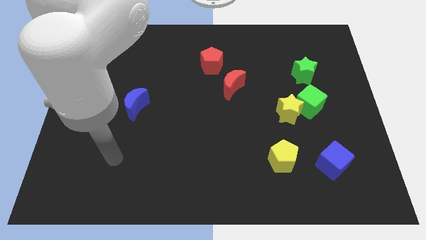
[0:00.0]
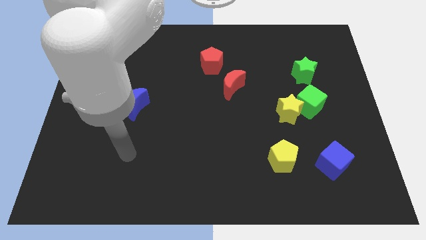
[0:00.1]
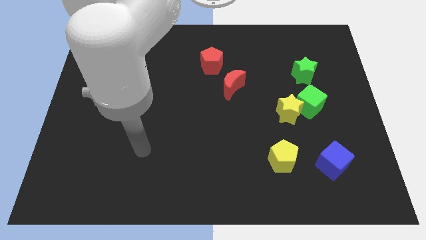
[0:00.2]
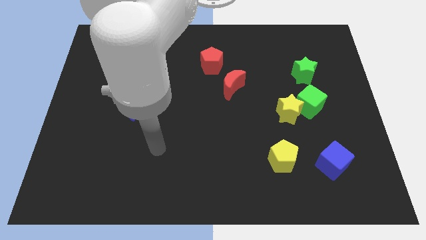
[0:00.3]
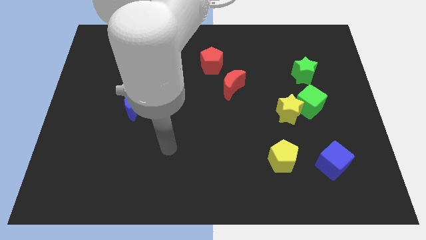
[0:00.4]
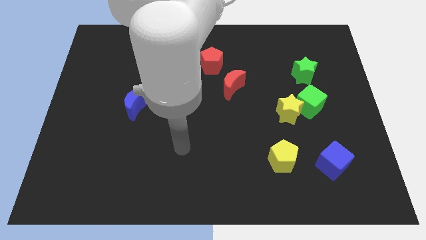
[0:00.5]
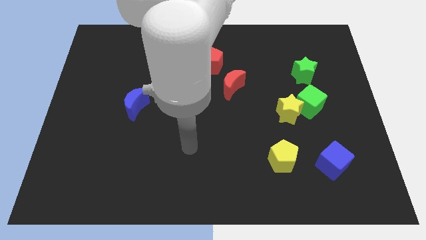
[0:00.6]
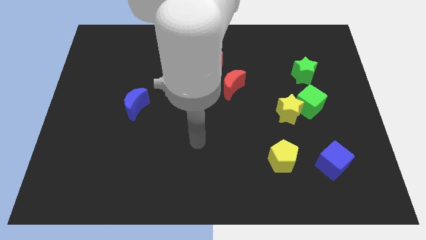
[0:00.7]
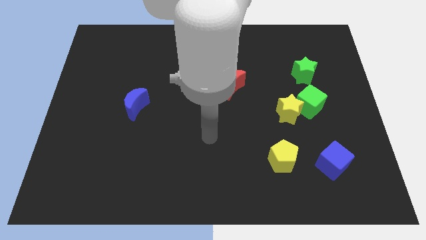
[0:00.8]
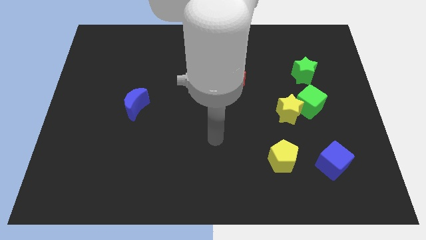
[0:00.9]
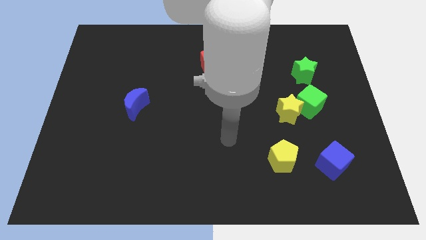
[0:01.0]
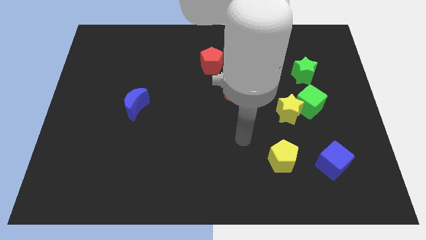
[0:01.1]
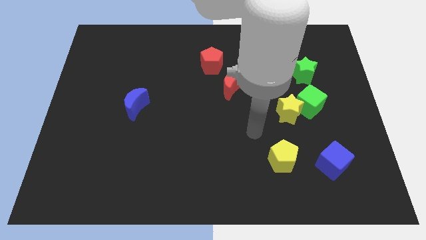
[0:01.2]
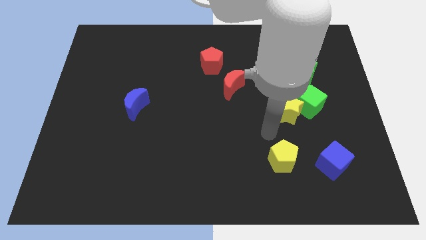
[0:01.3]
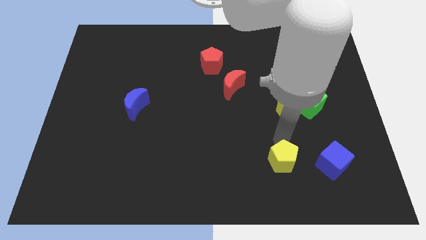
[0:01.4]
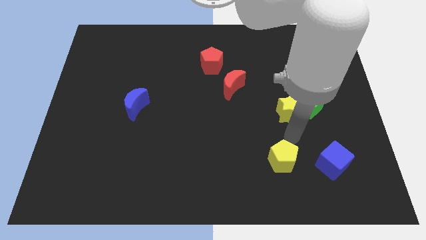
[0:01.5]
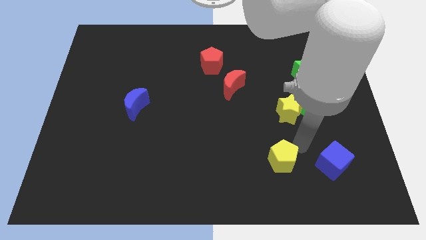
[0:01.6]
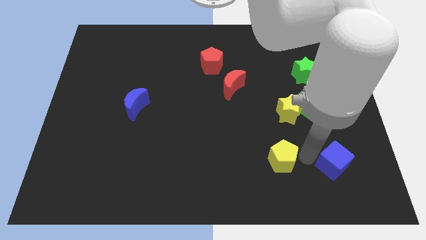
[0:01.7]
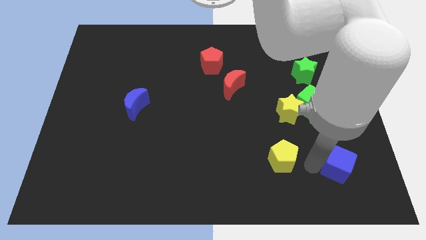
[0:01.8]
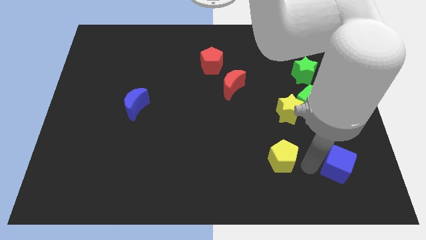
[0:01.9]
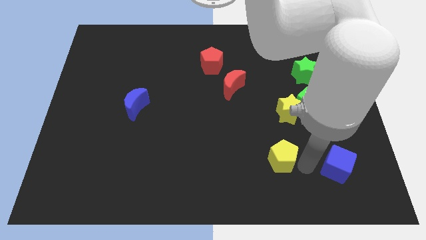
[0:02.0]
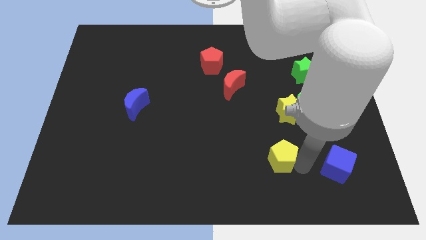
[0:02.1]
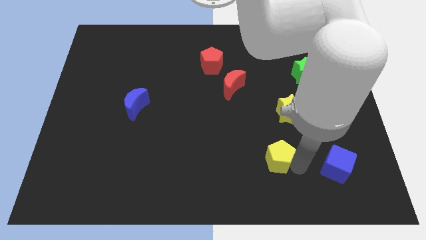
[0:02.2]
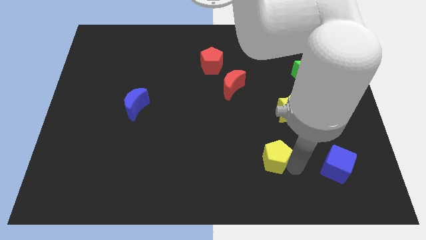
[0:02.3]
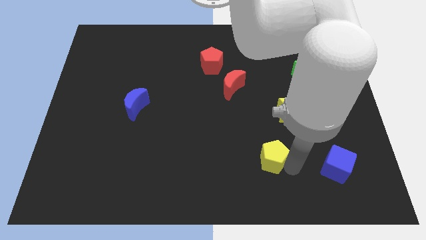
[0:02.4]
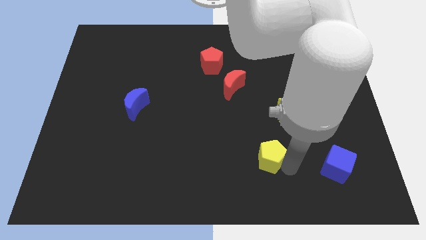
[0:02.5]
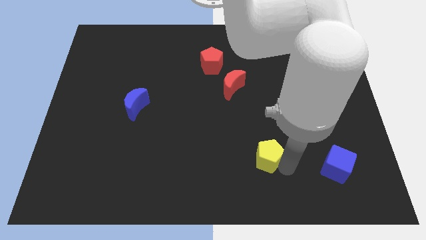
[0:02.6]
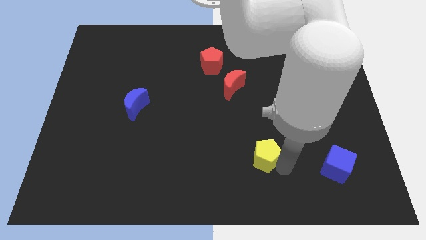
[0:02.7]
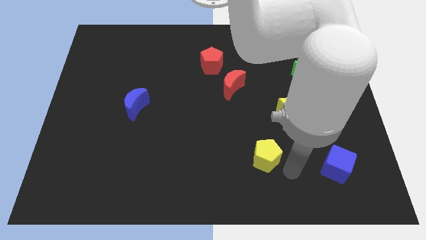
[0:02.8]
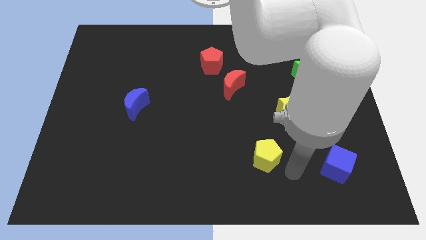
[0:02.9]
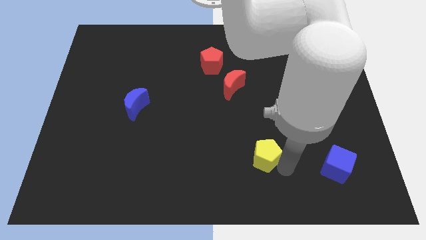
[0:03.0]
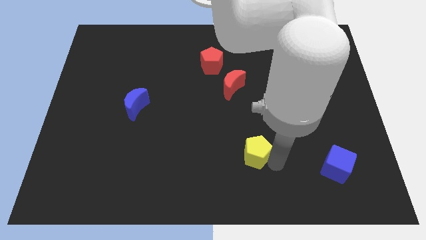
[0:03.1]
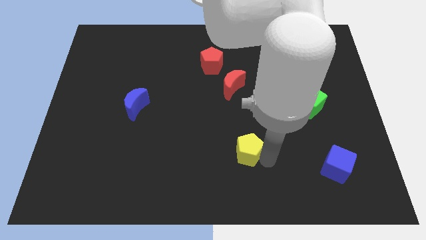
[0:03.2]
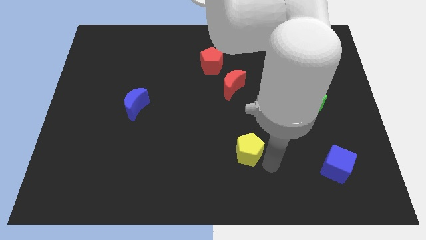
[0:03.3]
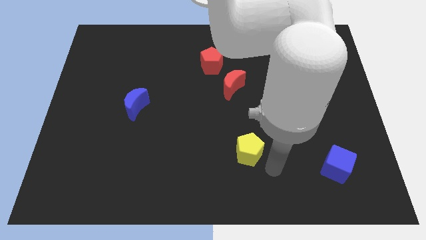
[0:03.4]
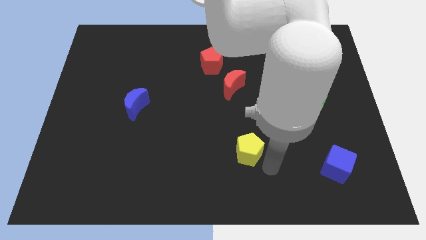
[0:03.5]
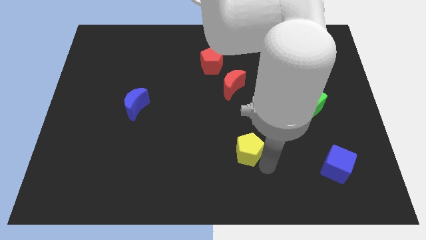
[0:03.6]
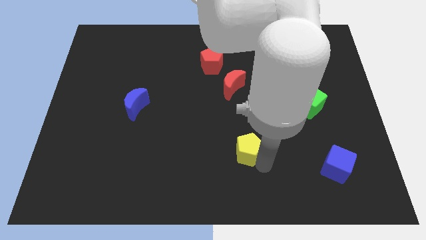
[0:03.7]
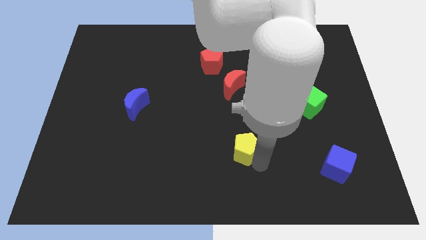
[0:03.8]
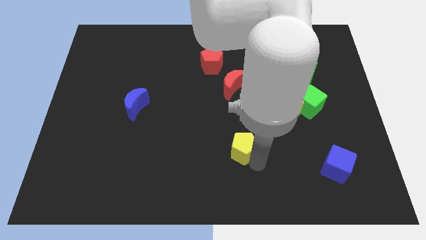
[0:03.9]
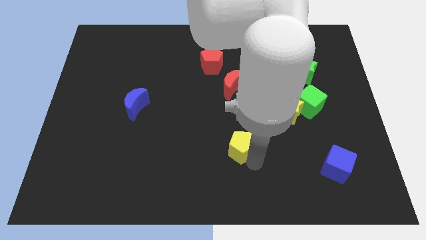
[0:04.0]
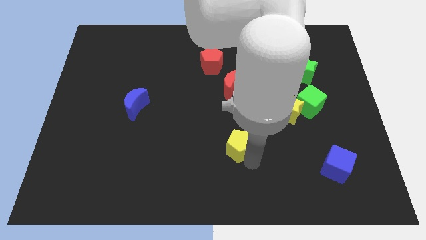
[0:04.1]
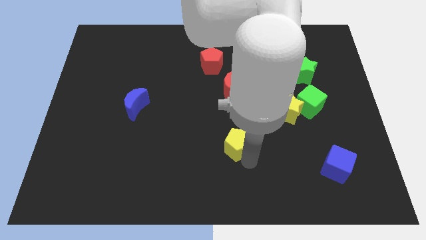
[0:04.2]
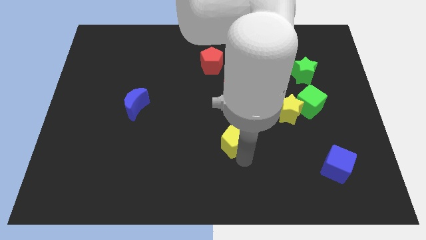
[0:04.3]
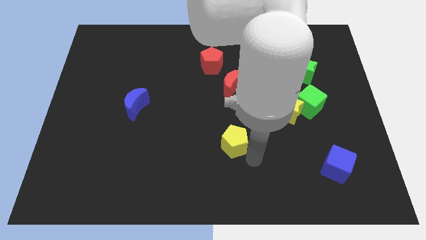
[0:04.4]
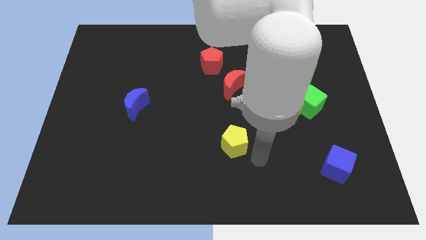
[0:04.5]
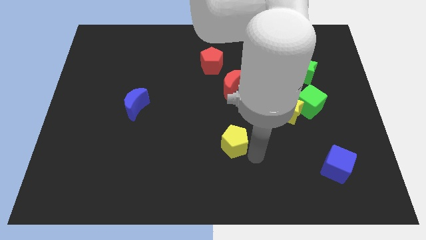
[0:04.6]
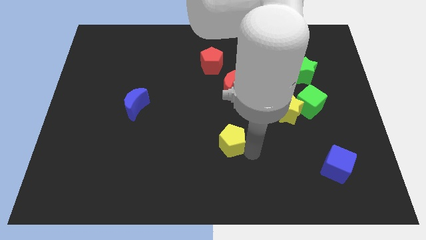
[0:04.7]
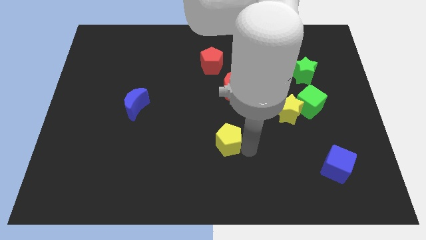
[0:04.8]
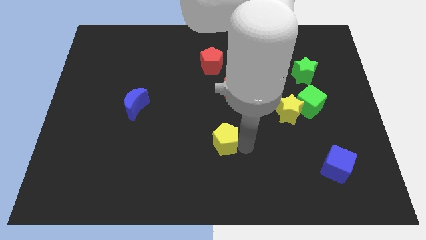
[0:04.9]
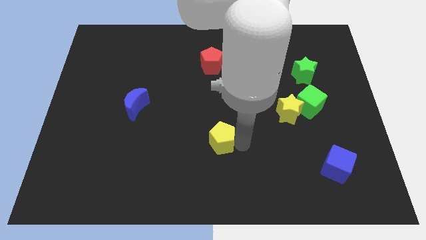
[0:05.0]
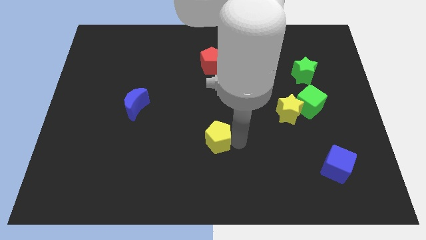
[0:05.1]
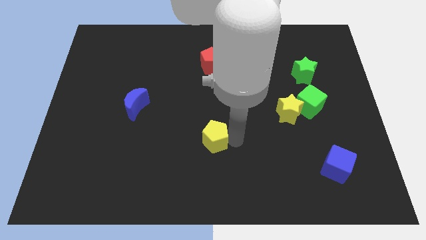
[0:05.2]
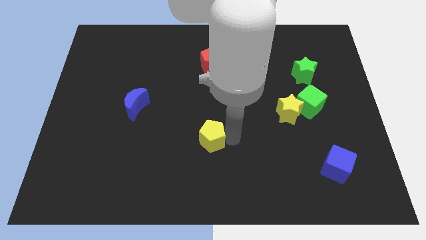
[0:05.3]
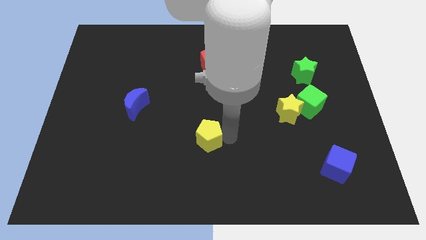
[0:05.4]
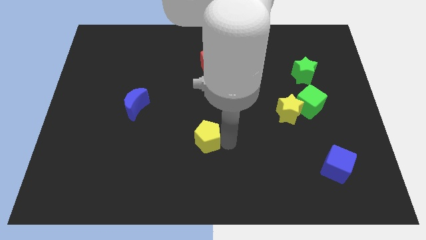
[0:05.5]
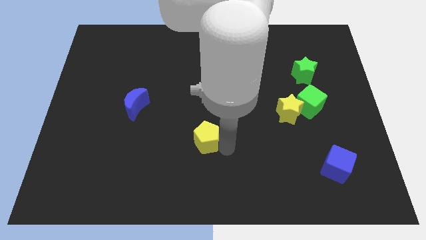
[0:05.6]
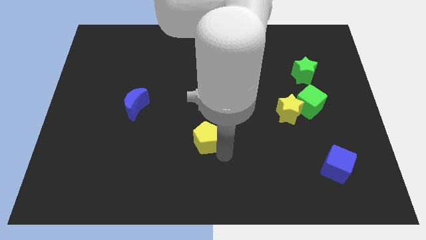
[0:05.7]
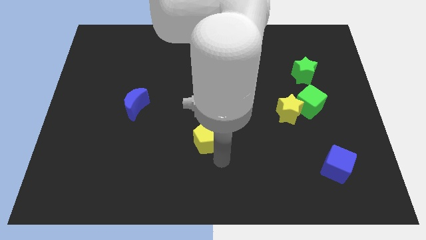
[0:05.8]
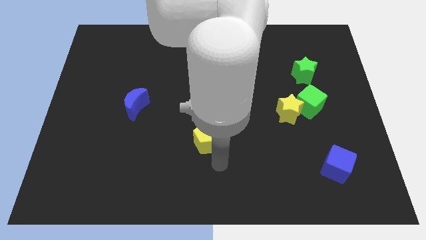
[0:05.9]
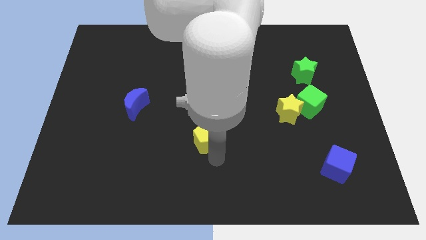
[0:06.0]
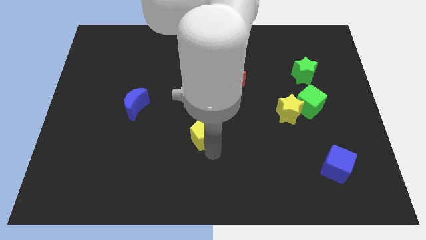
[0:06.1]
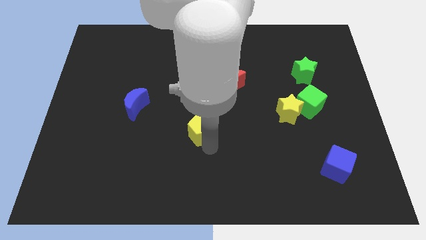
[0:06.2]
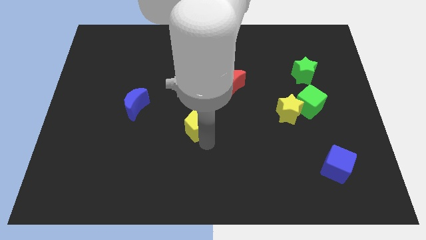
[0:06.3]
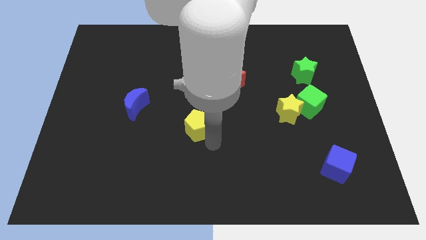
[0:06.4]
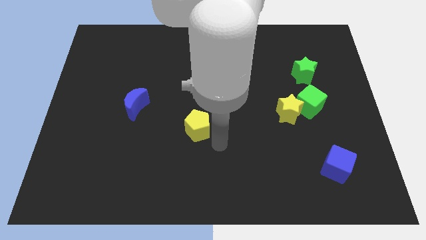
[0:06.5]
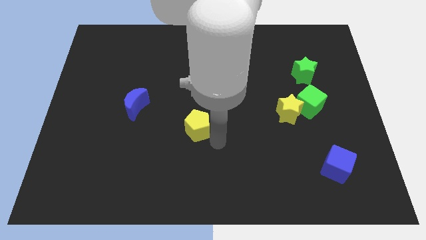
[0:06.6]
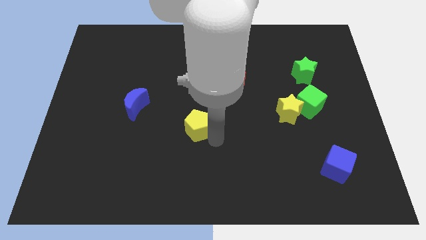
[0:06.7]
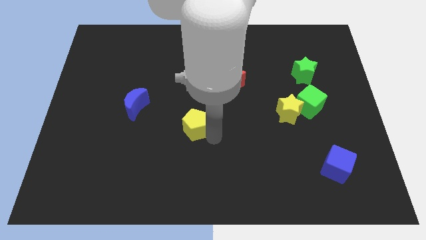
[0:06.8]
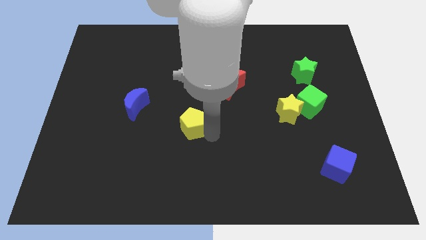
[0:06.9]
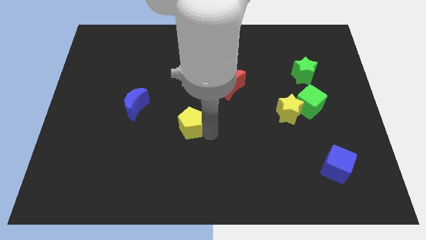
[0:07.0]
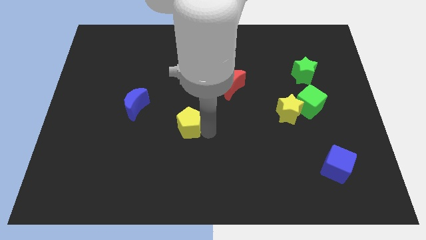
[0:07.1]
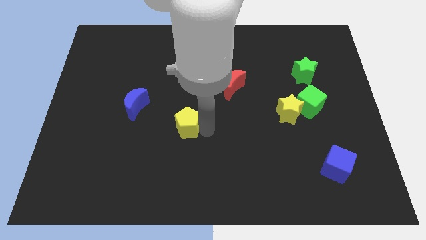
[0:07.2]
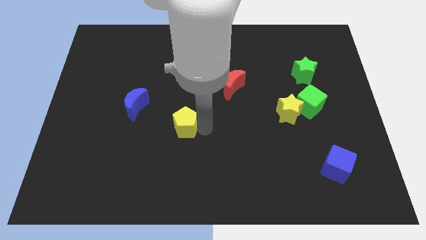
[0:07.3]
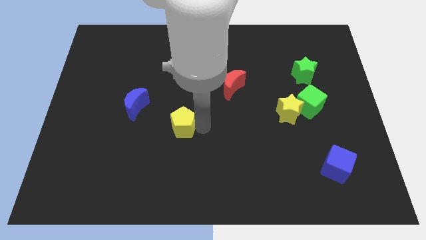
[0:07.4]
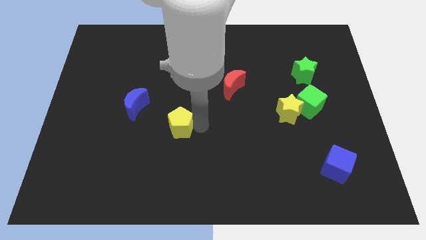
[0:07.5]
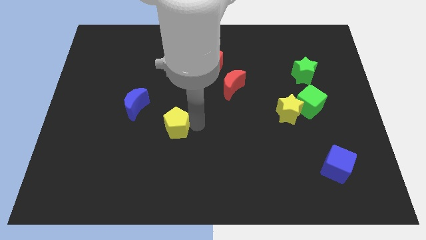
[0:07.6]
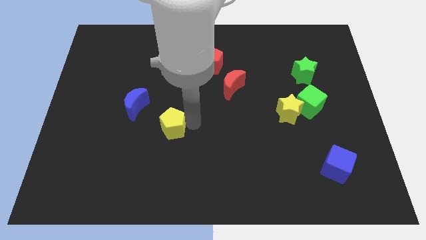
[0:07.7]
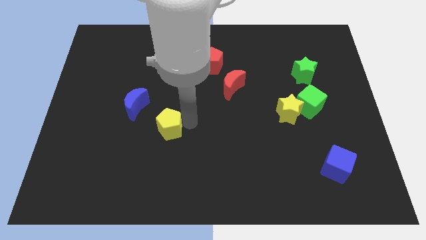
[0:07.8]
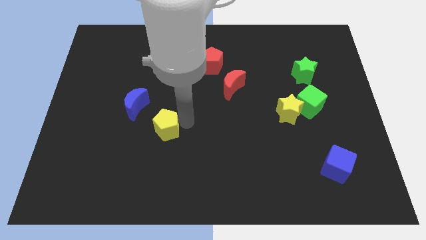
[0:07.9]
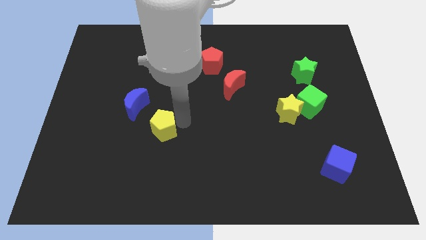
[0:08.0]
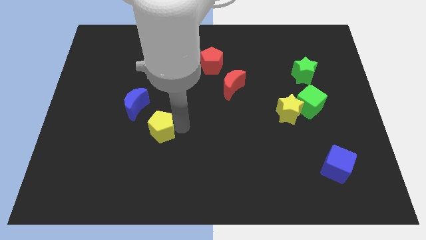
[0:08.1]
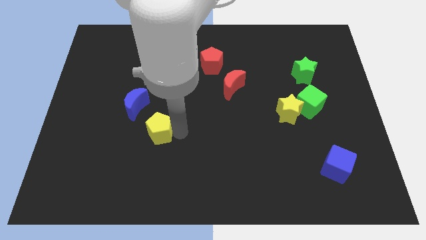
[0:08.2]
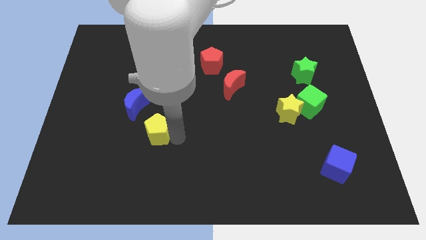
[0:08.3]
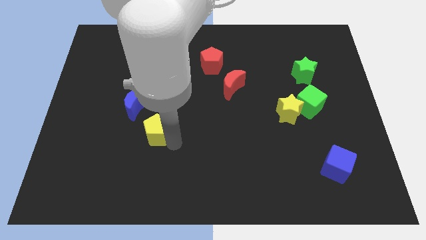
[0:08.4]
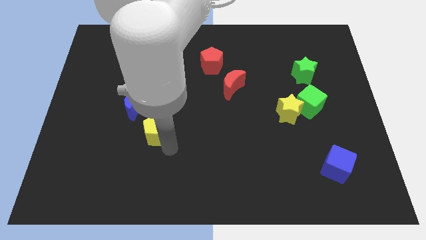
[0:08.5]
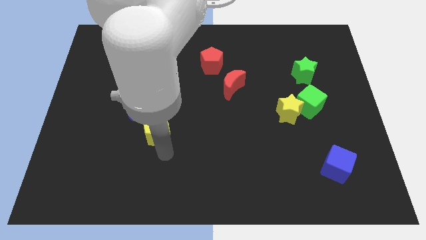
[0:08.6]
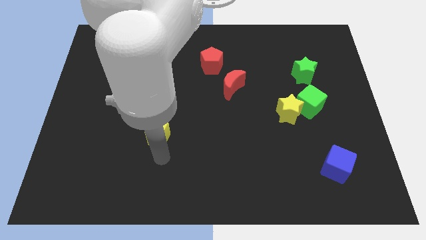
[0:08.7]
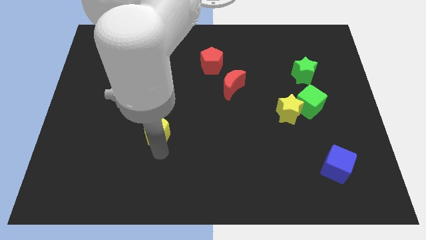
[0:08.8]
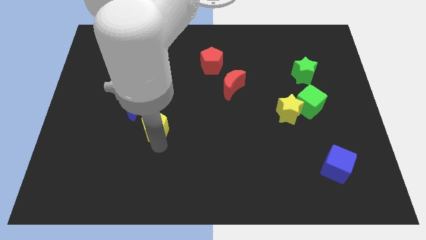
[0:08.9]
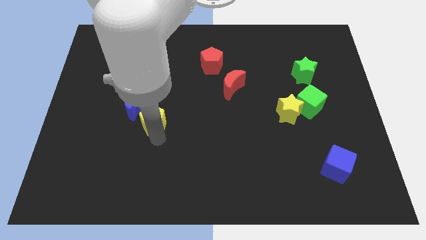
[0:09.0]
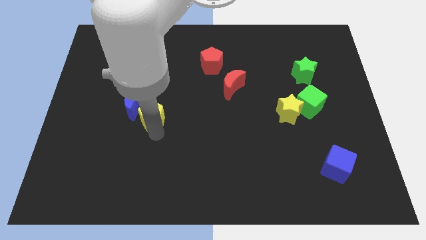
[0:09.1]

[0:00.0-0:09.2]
put the yellow pentagon to the blue moon
